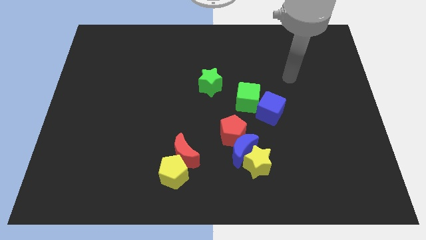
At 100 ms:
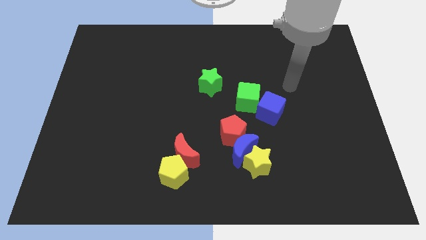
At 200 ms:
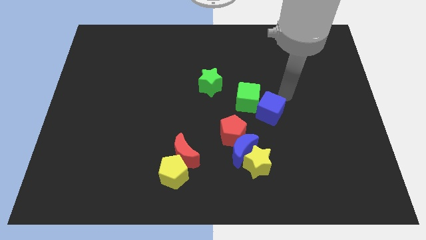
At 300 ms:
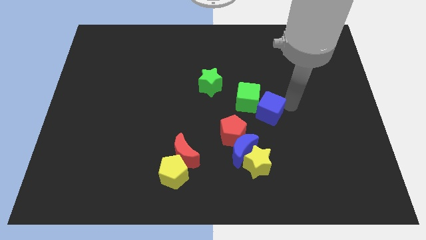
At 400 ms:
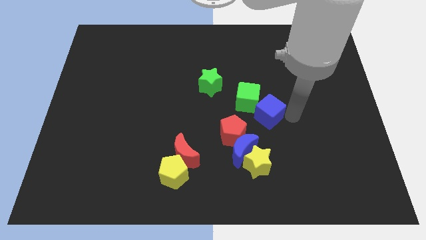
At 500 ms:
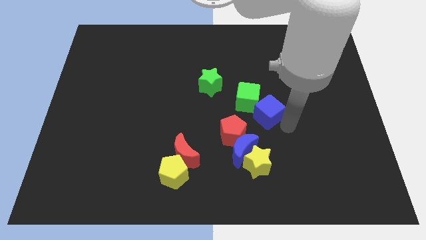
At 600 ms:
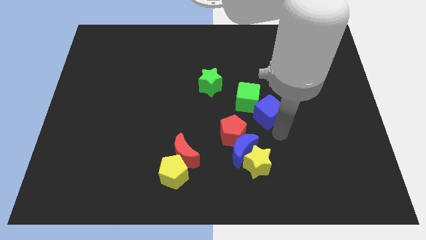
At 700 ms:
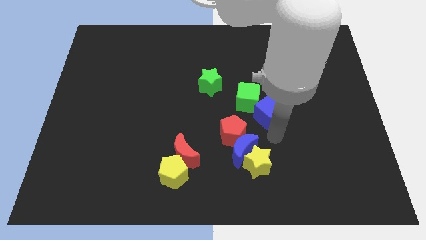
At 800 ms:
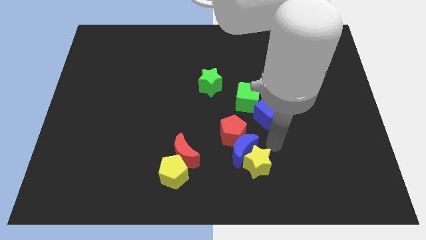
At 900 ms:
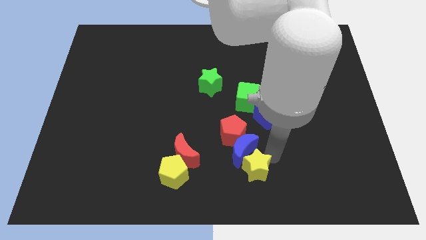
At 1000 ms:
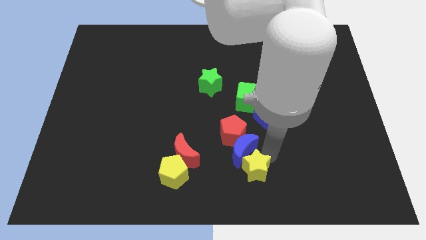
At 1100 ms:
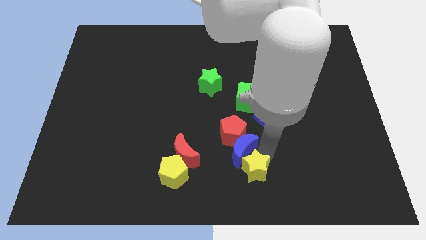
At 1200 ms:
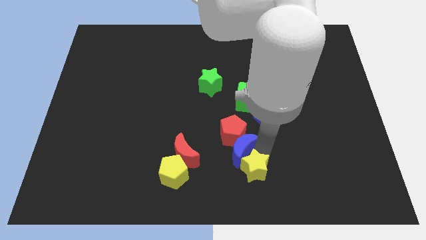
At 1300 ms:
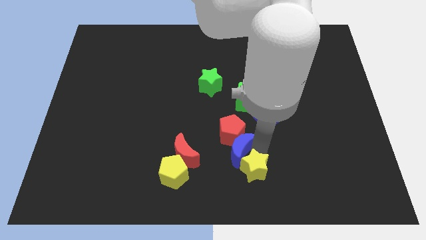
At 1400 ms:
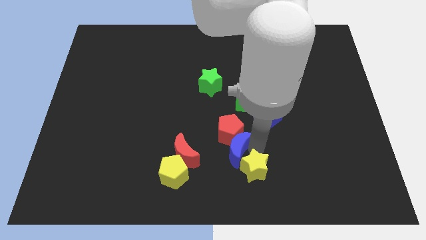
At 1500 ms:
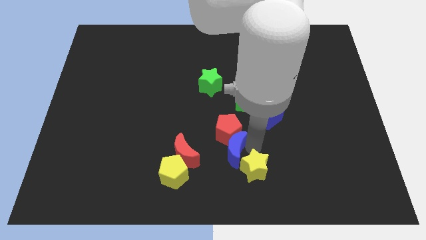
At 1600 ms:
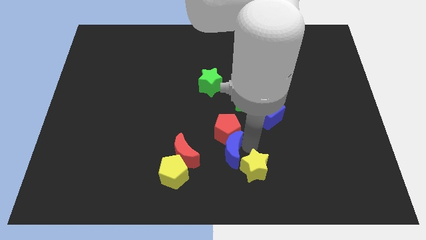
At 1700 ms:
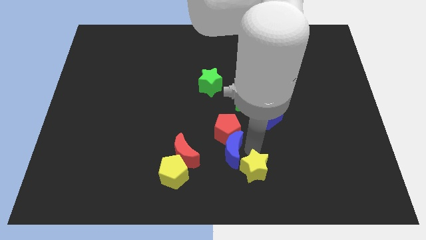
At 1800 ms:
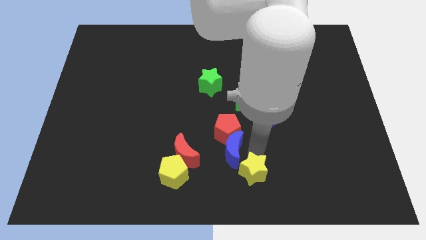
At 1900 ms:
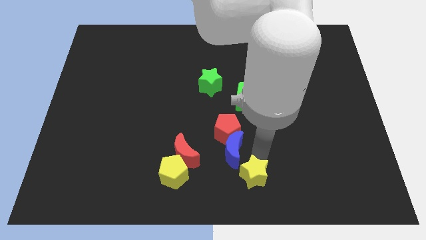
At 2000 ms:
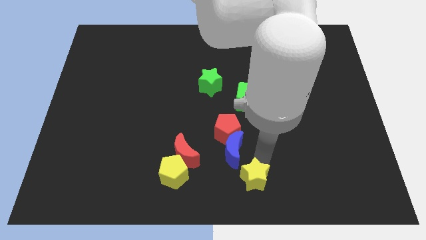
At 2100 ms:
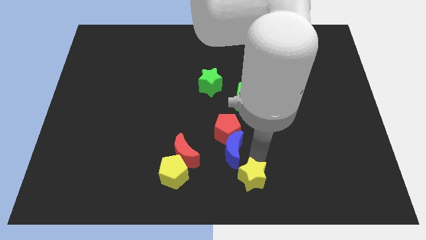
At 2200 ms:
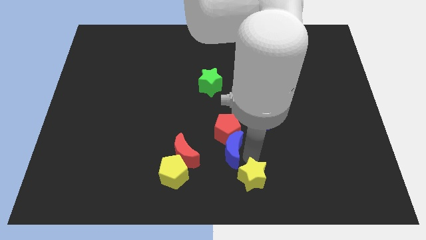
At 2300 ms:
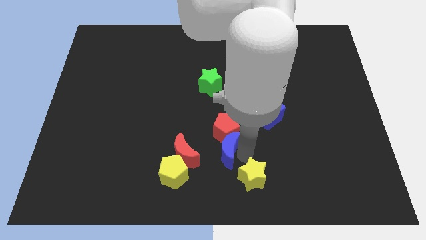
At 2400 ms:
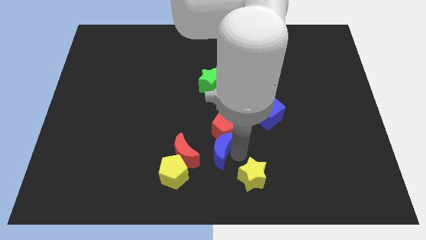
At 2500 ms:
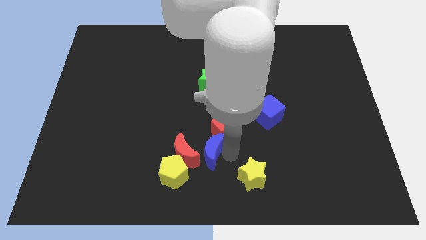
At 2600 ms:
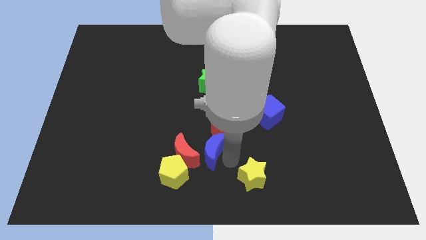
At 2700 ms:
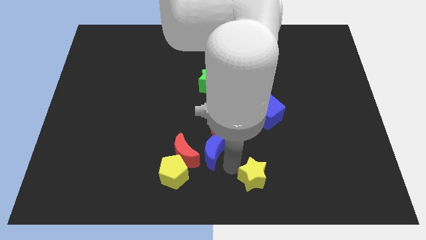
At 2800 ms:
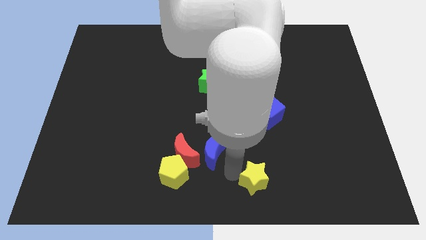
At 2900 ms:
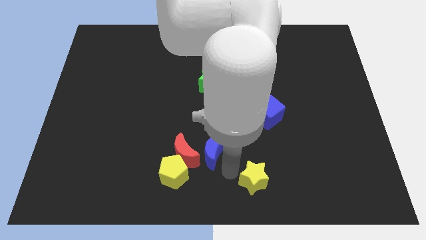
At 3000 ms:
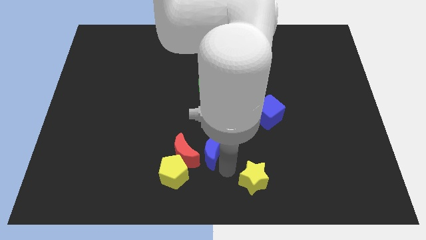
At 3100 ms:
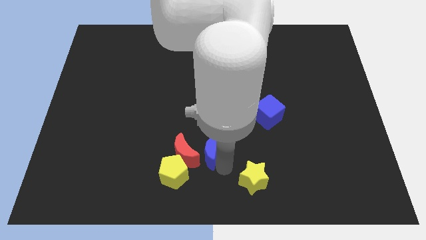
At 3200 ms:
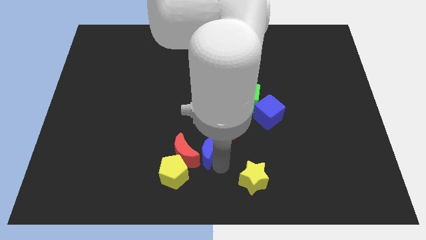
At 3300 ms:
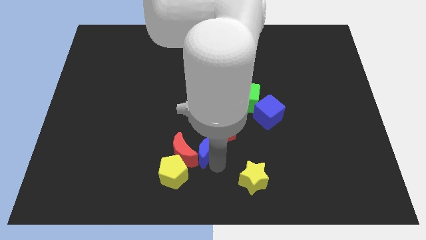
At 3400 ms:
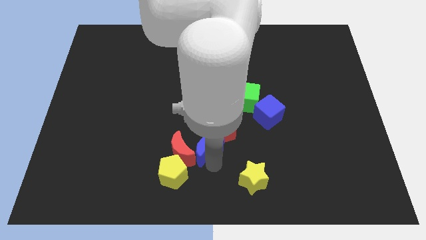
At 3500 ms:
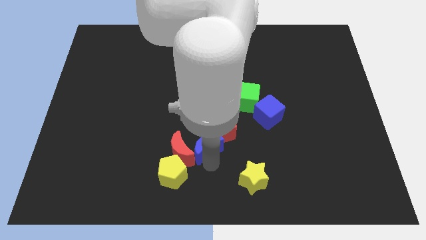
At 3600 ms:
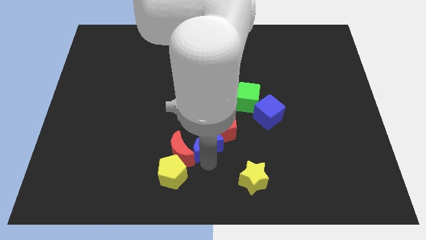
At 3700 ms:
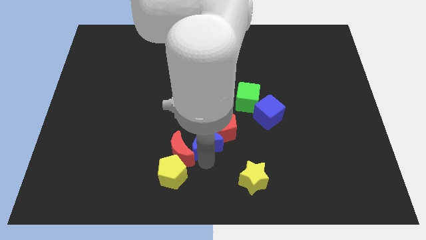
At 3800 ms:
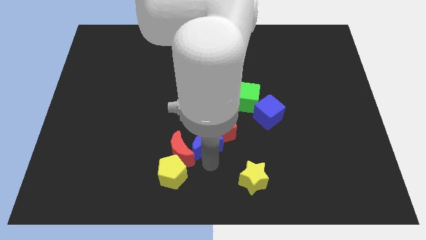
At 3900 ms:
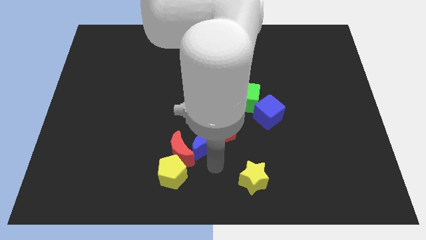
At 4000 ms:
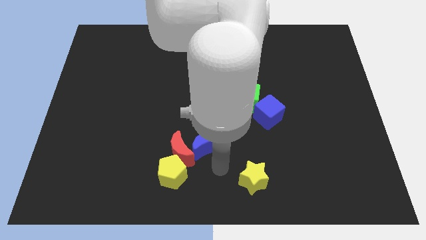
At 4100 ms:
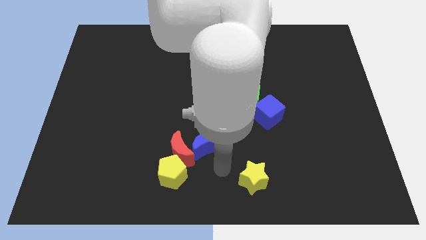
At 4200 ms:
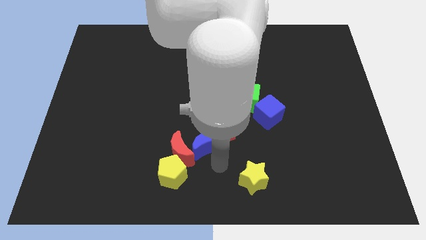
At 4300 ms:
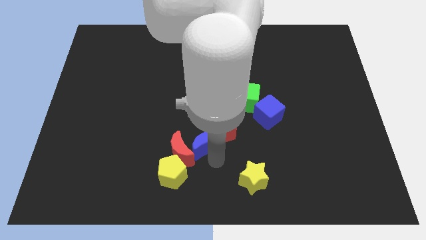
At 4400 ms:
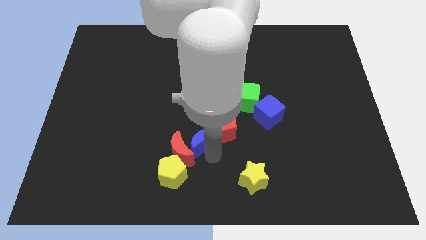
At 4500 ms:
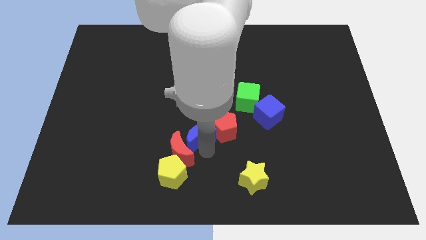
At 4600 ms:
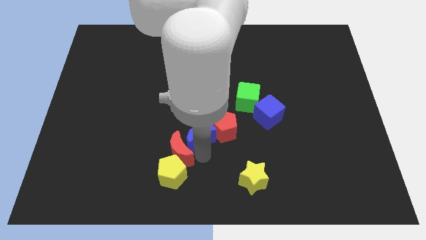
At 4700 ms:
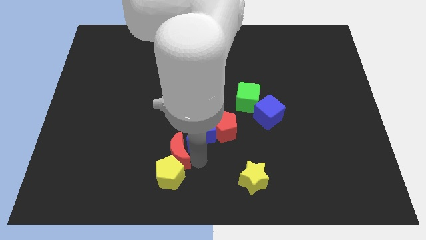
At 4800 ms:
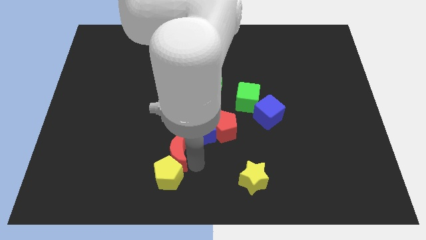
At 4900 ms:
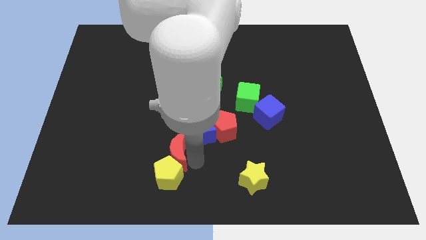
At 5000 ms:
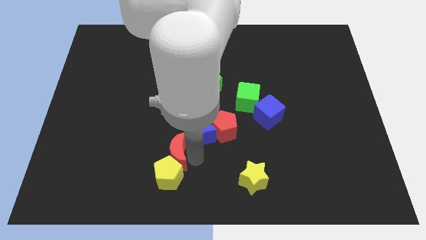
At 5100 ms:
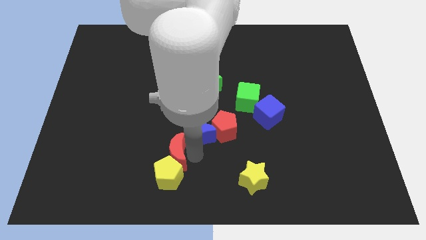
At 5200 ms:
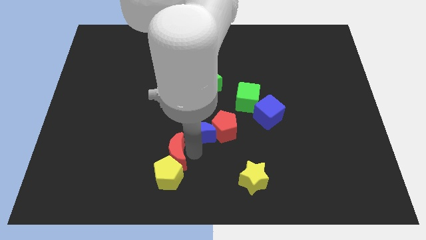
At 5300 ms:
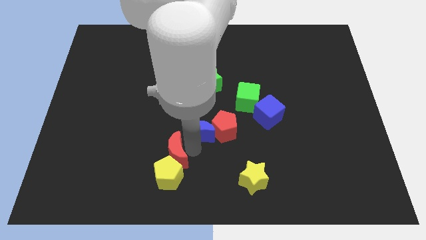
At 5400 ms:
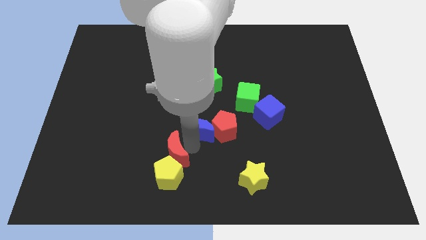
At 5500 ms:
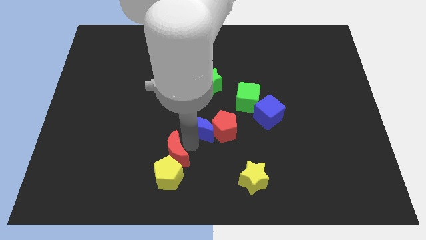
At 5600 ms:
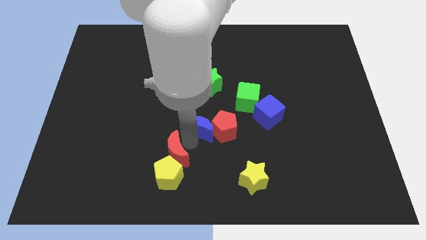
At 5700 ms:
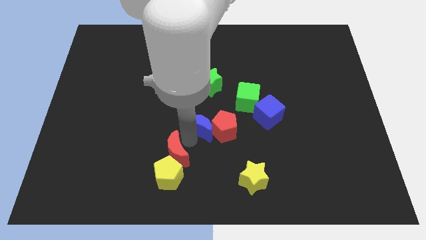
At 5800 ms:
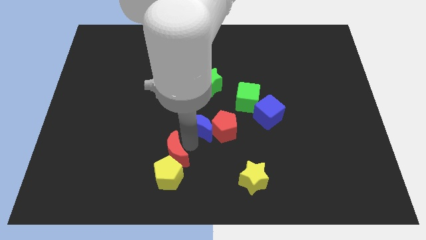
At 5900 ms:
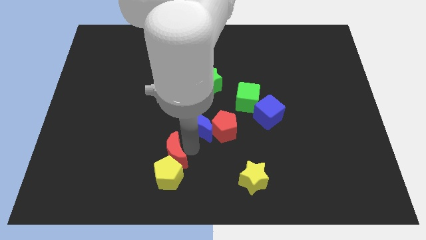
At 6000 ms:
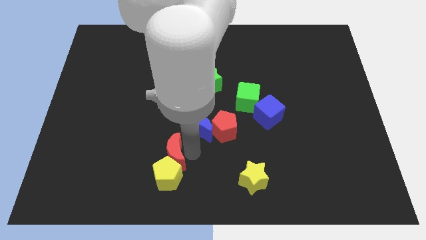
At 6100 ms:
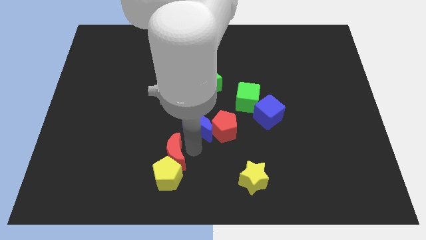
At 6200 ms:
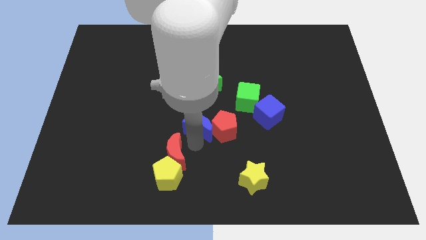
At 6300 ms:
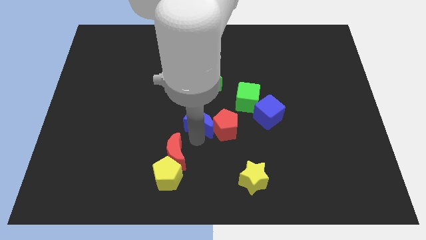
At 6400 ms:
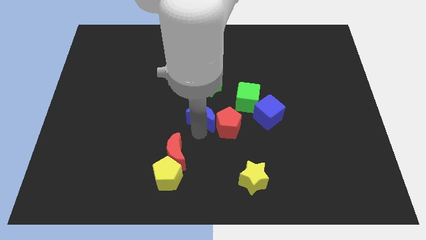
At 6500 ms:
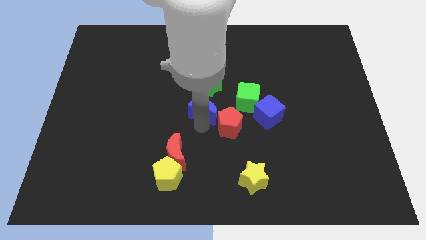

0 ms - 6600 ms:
move the blue moon just left of the green cube

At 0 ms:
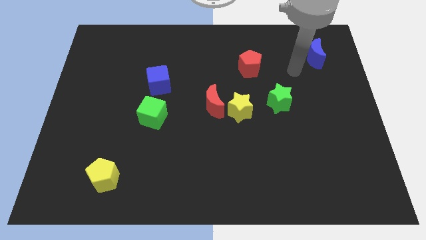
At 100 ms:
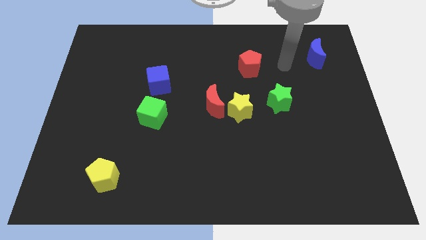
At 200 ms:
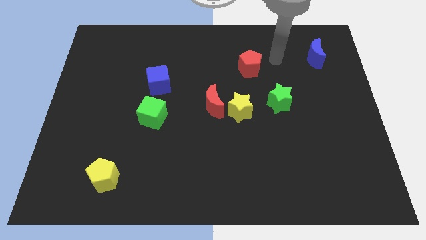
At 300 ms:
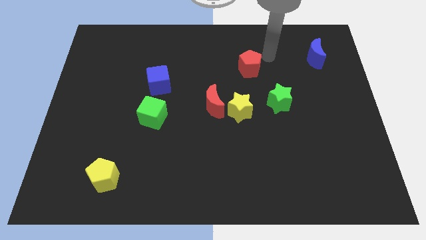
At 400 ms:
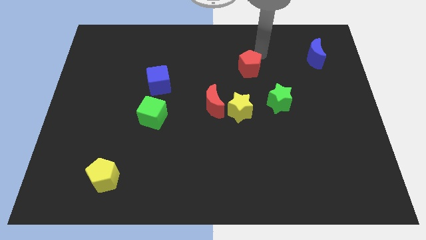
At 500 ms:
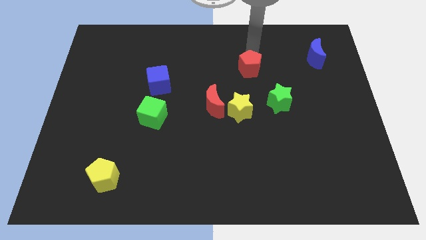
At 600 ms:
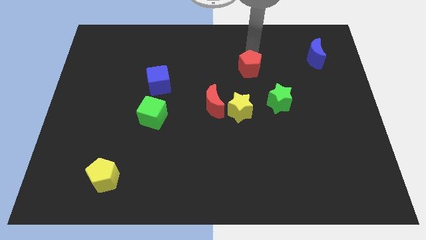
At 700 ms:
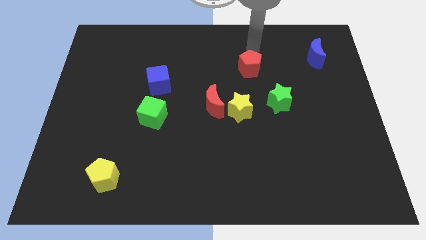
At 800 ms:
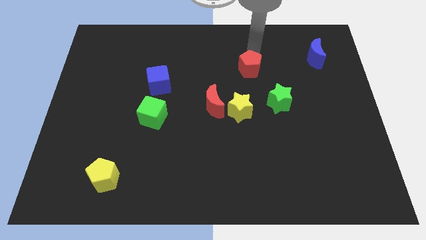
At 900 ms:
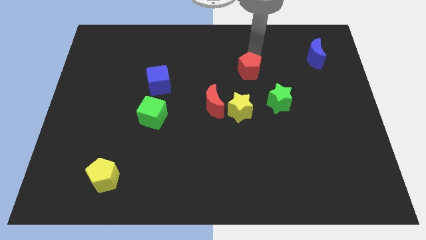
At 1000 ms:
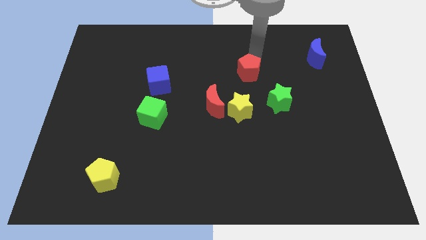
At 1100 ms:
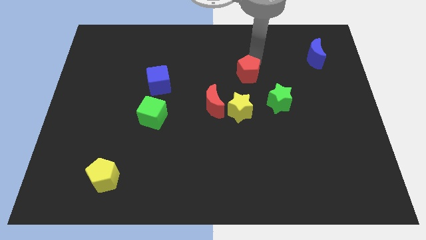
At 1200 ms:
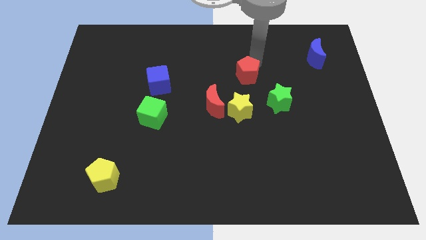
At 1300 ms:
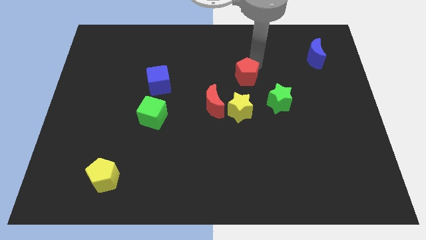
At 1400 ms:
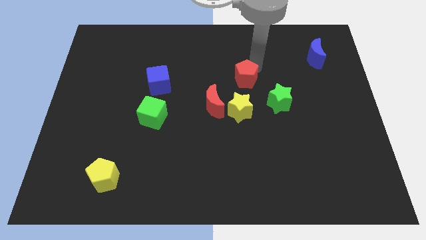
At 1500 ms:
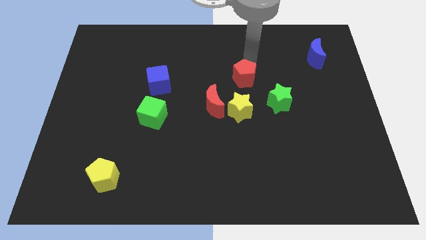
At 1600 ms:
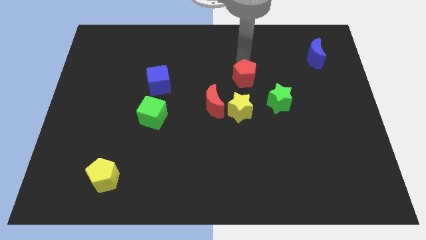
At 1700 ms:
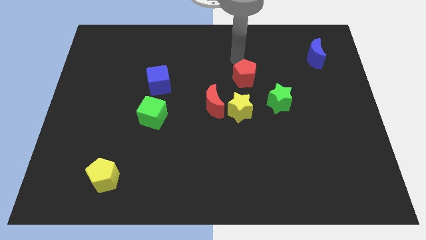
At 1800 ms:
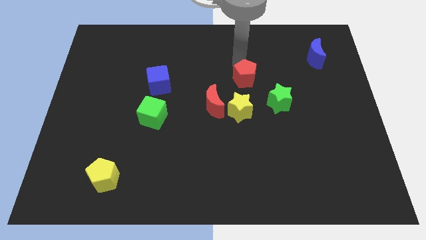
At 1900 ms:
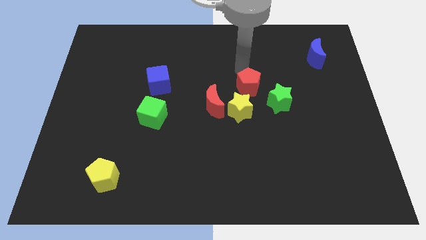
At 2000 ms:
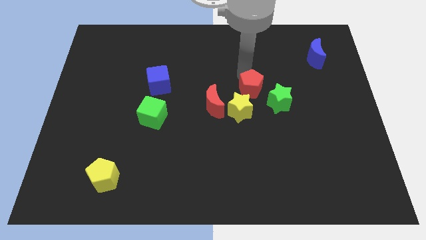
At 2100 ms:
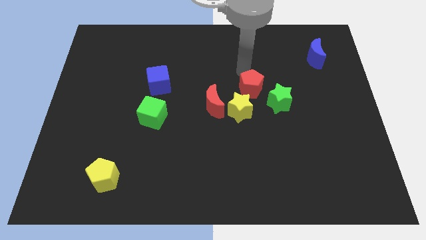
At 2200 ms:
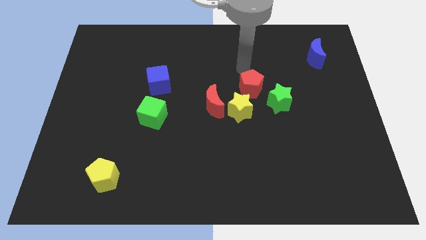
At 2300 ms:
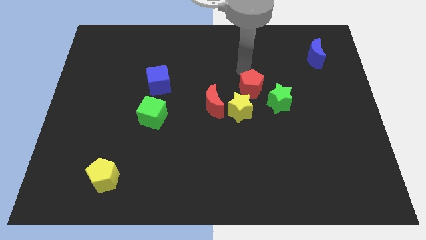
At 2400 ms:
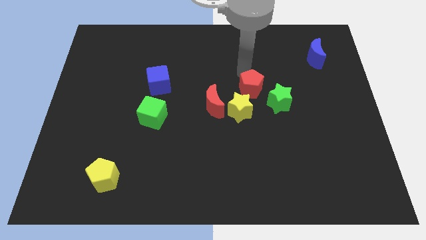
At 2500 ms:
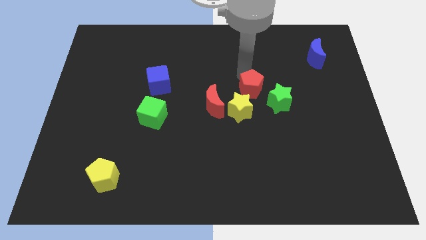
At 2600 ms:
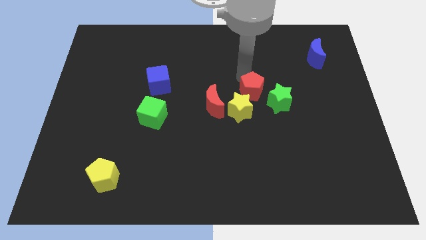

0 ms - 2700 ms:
put the red pentagon to the right side of the red moon
